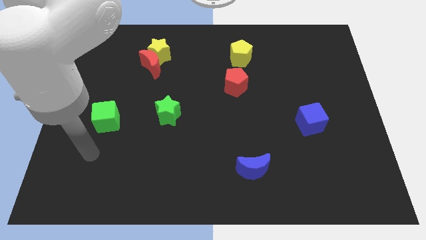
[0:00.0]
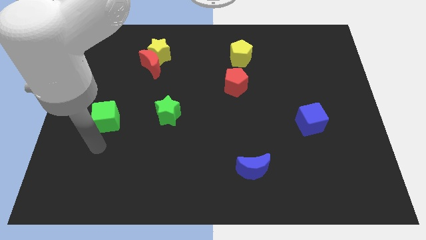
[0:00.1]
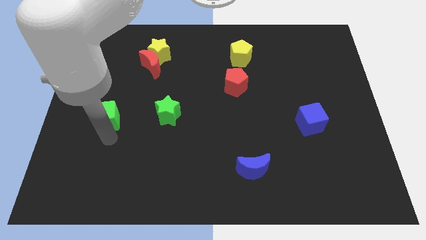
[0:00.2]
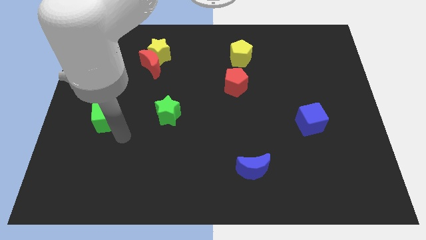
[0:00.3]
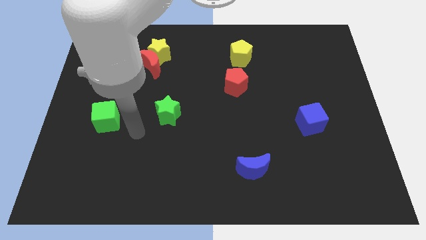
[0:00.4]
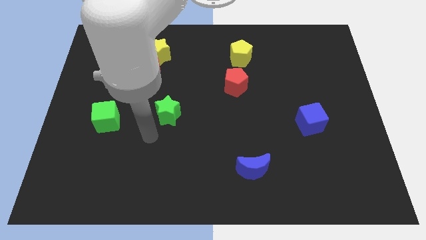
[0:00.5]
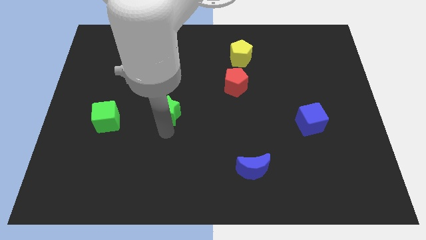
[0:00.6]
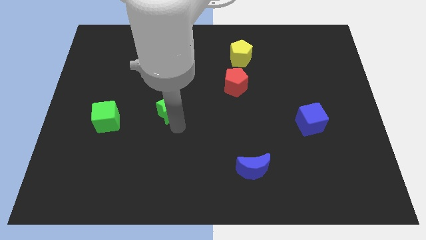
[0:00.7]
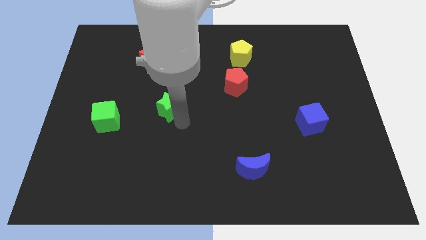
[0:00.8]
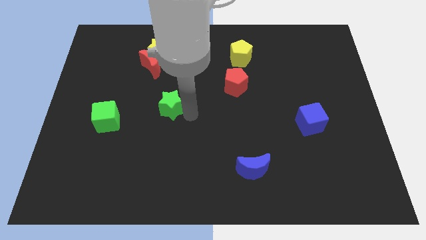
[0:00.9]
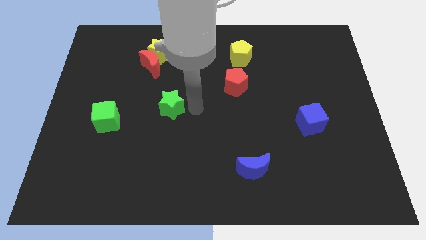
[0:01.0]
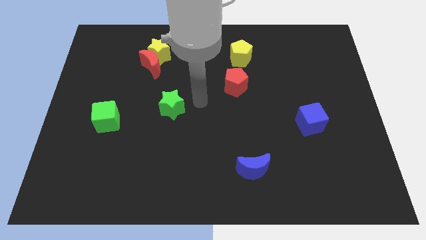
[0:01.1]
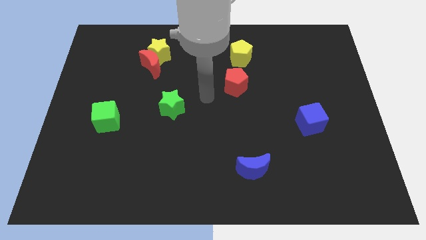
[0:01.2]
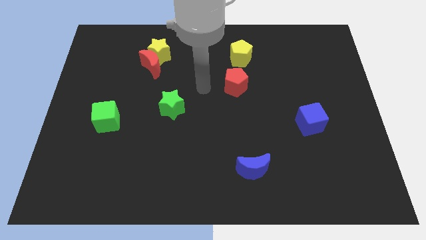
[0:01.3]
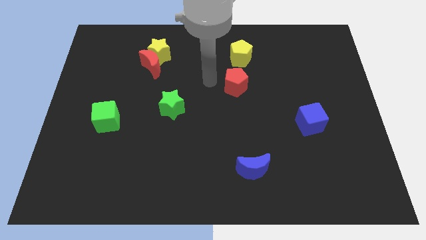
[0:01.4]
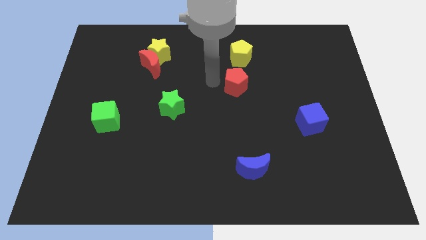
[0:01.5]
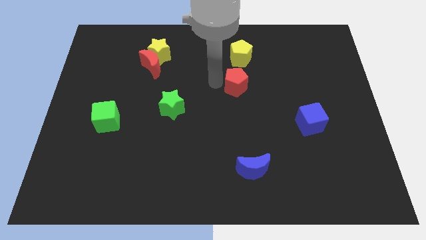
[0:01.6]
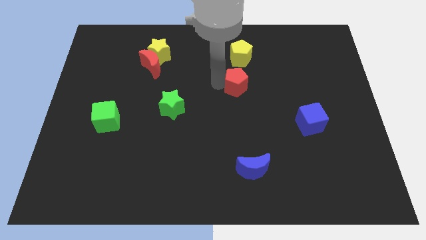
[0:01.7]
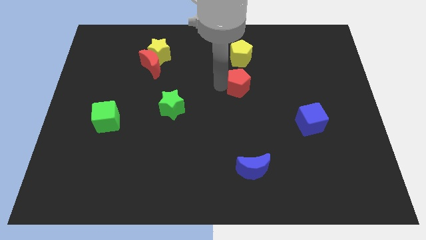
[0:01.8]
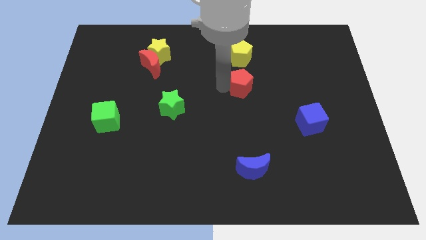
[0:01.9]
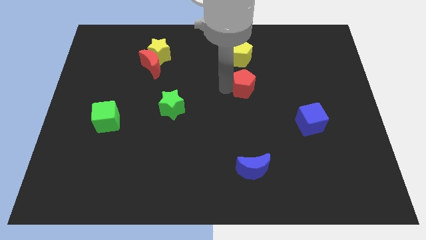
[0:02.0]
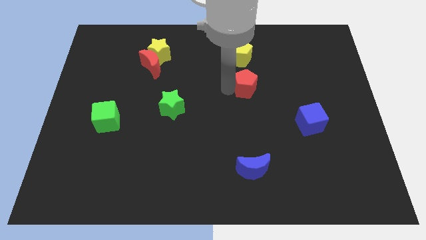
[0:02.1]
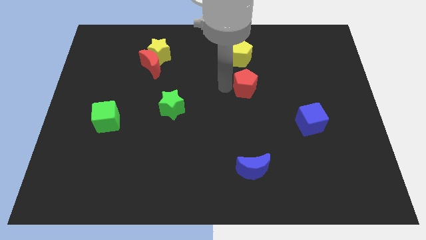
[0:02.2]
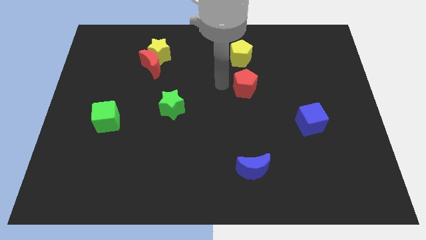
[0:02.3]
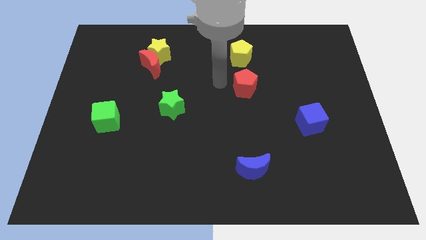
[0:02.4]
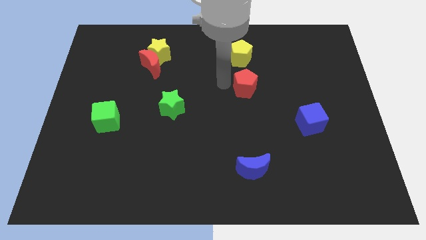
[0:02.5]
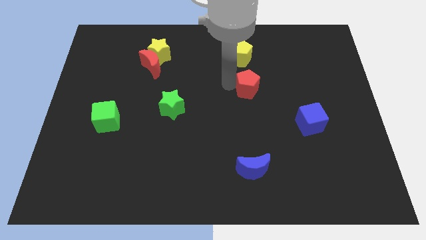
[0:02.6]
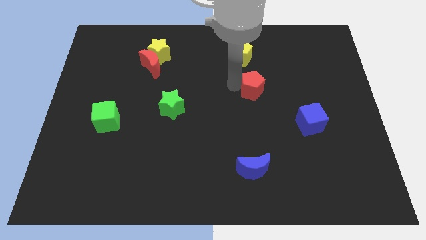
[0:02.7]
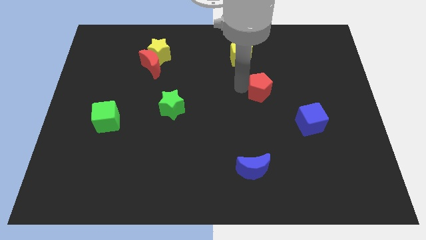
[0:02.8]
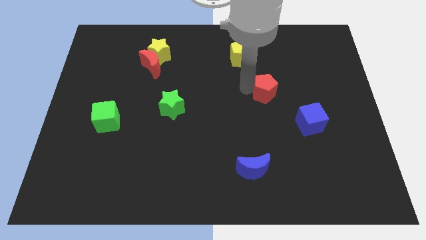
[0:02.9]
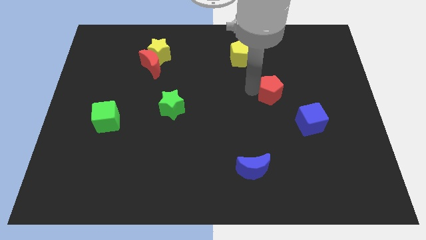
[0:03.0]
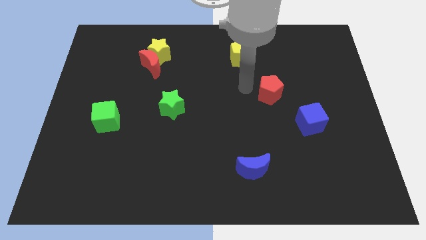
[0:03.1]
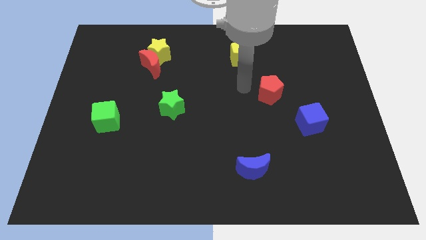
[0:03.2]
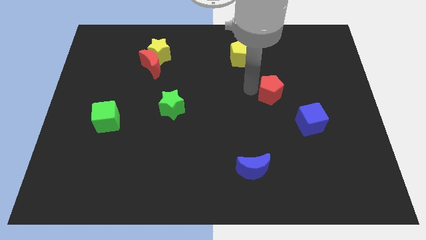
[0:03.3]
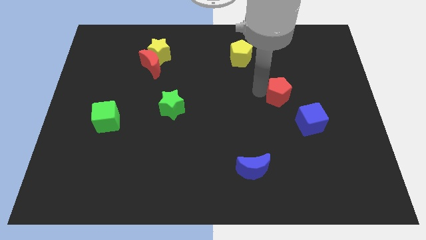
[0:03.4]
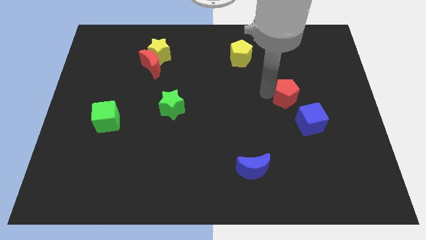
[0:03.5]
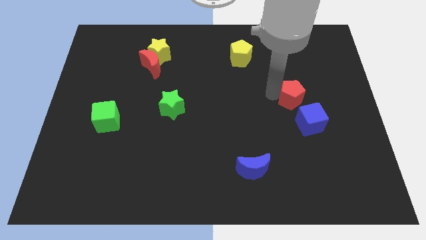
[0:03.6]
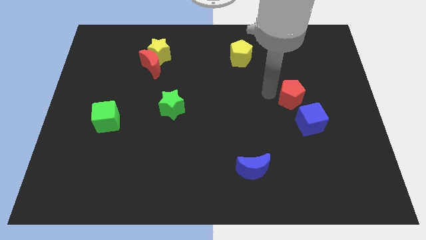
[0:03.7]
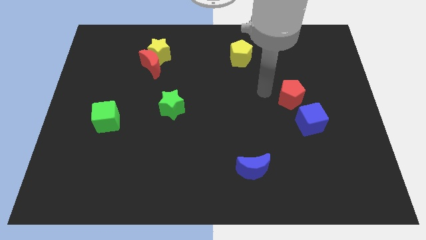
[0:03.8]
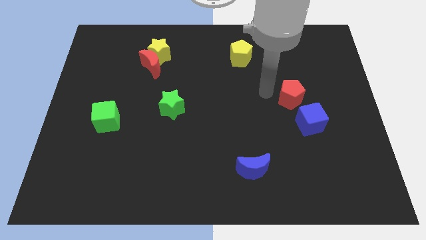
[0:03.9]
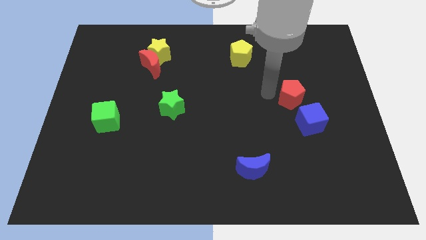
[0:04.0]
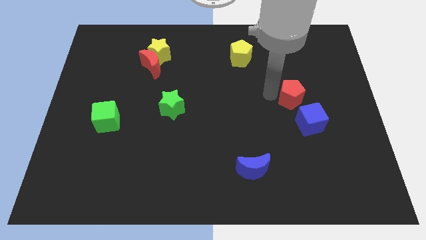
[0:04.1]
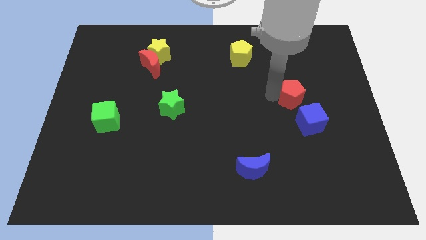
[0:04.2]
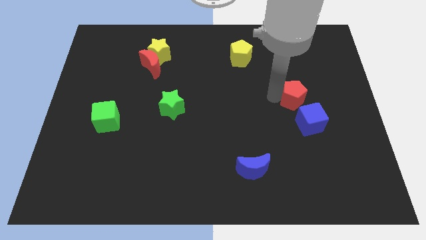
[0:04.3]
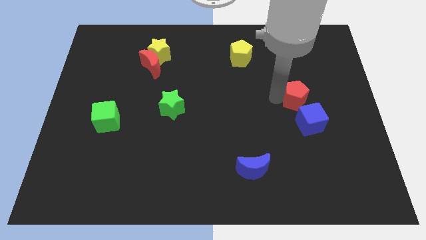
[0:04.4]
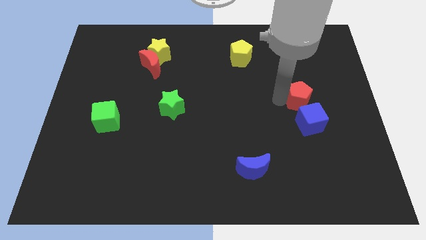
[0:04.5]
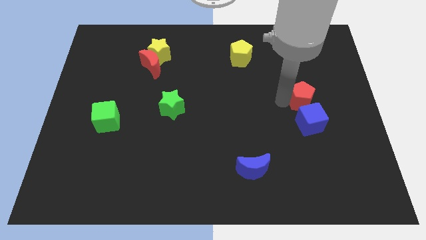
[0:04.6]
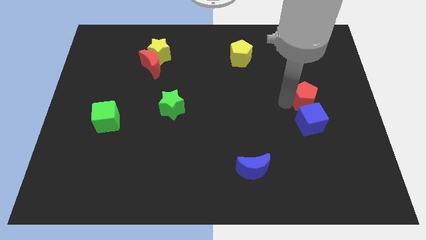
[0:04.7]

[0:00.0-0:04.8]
put the red pentagon diagonally up and to the right of the blue cube

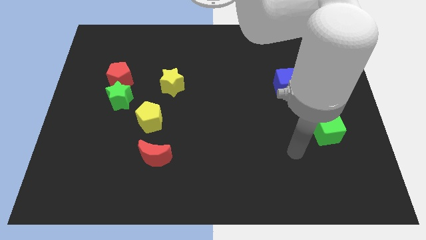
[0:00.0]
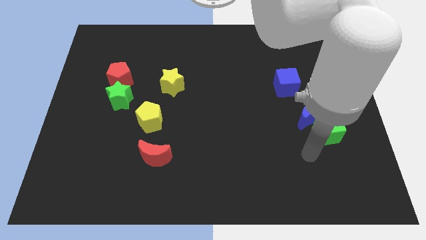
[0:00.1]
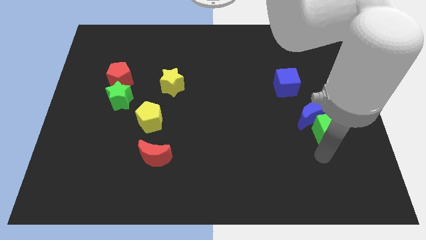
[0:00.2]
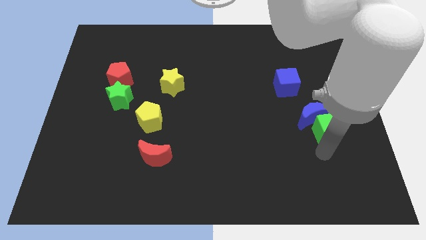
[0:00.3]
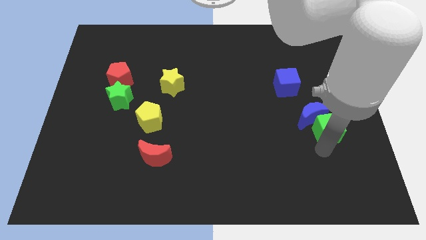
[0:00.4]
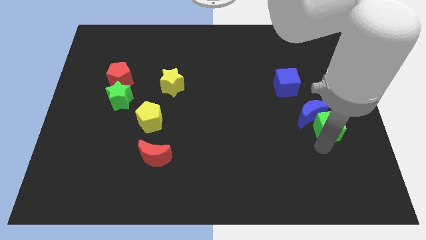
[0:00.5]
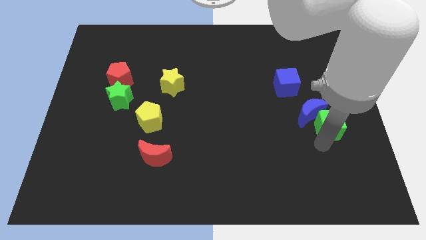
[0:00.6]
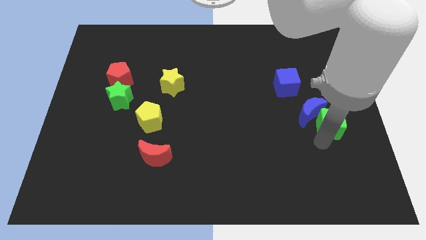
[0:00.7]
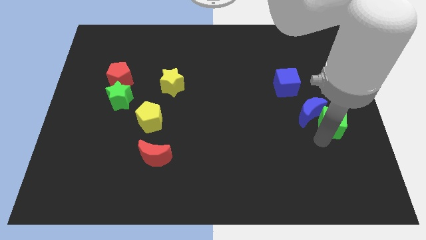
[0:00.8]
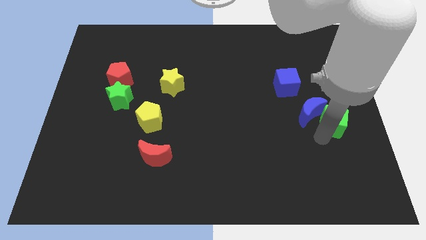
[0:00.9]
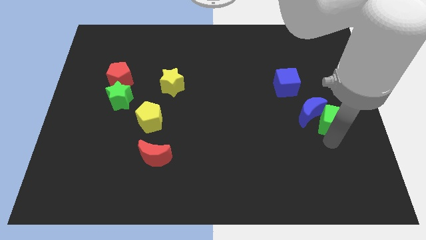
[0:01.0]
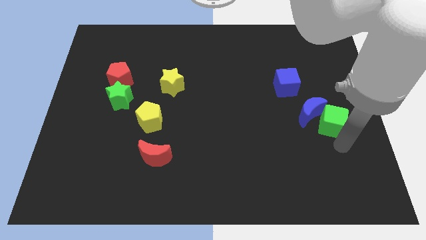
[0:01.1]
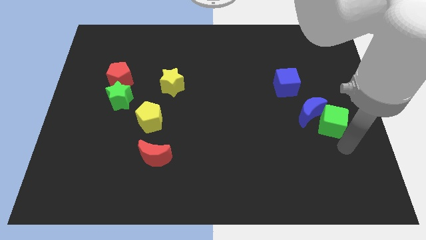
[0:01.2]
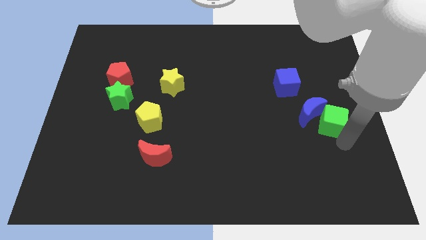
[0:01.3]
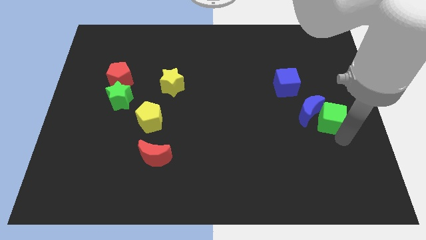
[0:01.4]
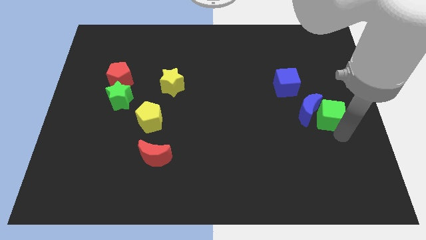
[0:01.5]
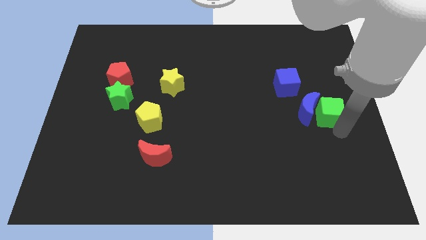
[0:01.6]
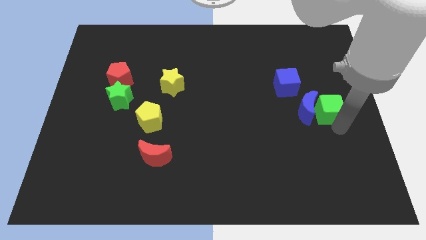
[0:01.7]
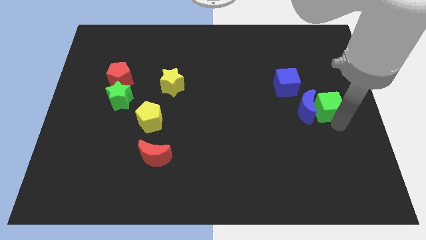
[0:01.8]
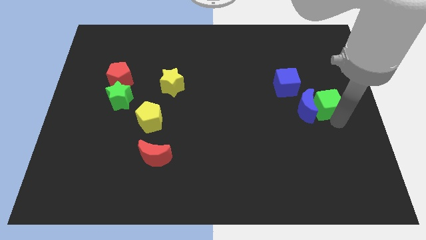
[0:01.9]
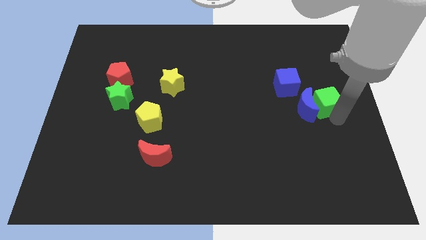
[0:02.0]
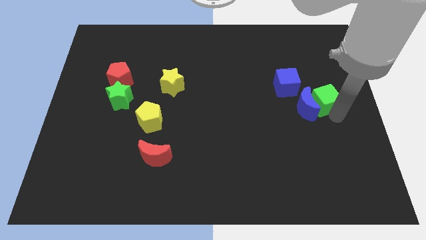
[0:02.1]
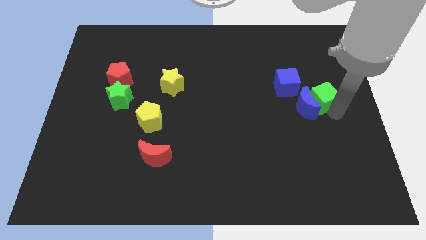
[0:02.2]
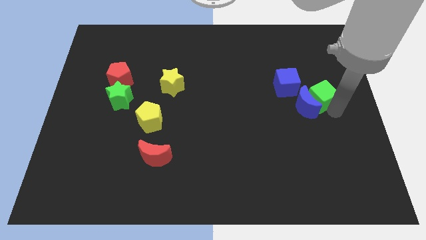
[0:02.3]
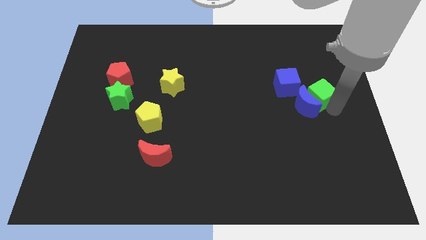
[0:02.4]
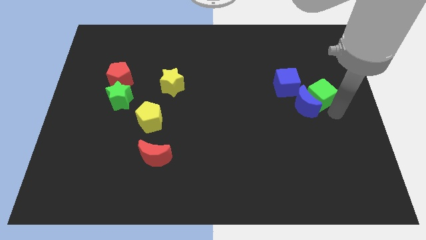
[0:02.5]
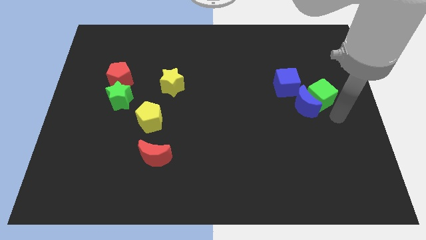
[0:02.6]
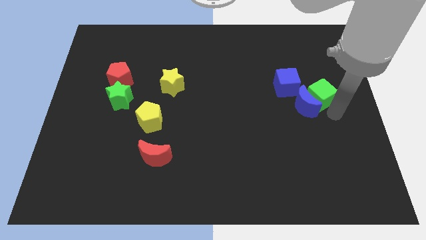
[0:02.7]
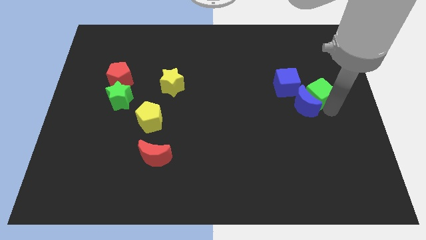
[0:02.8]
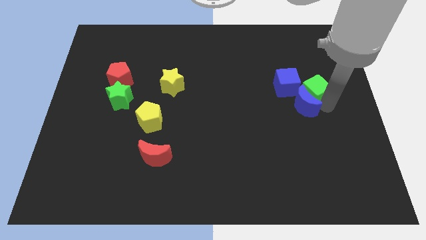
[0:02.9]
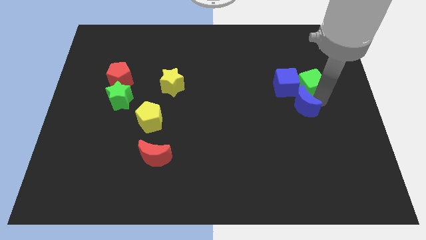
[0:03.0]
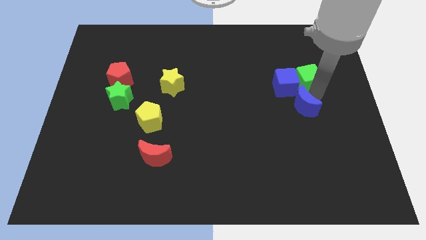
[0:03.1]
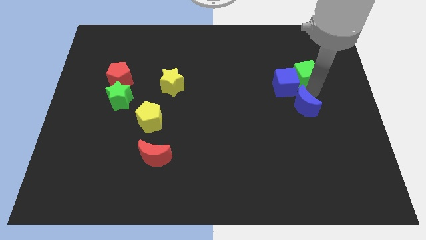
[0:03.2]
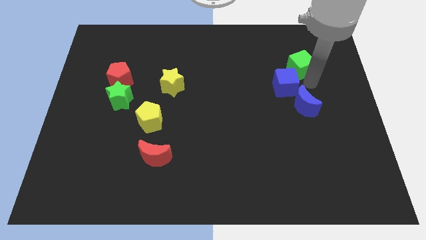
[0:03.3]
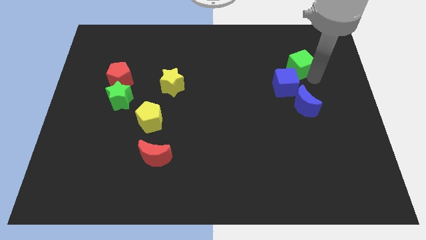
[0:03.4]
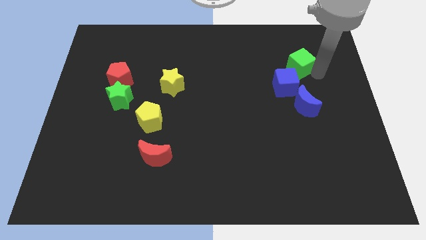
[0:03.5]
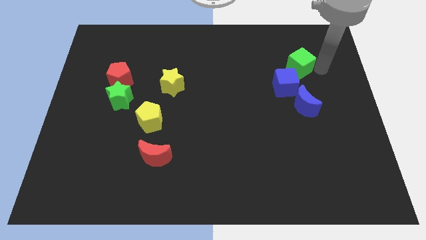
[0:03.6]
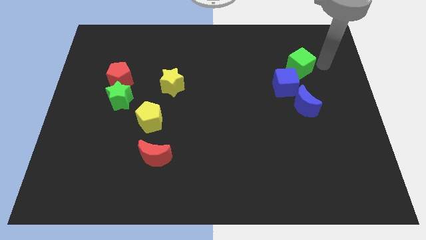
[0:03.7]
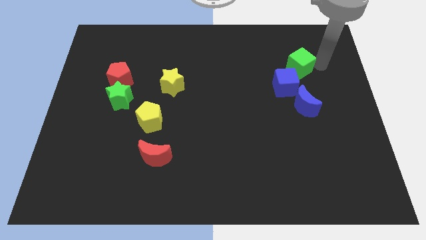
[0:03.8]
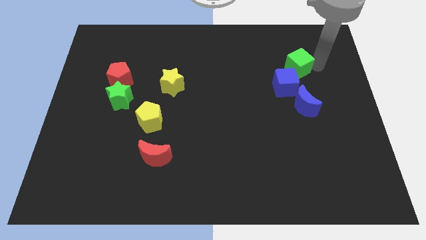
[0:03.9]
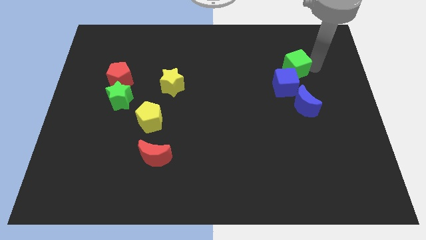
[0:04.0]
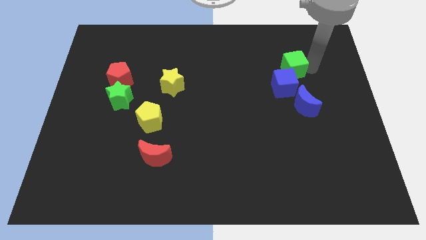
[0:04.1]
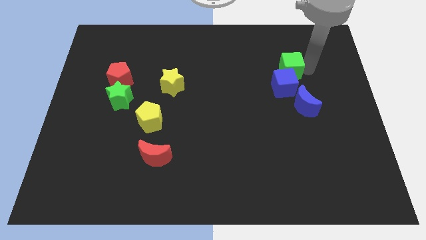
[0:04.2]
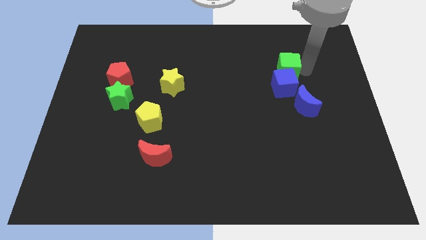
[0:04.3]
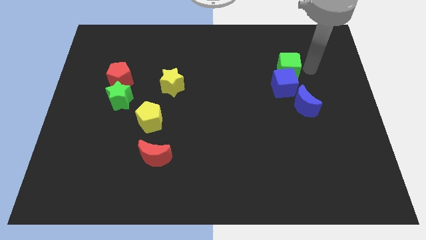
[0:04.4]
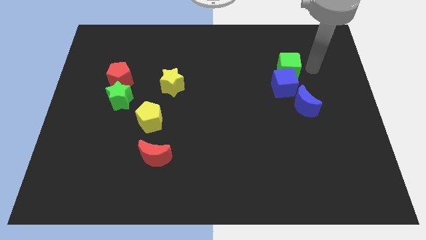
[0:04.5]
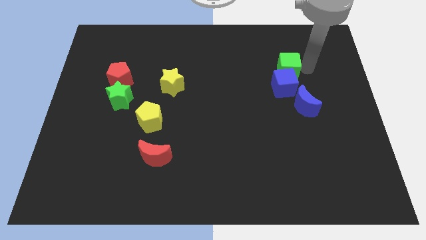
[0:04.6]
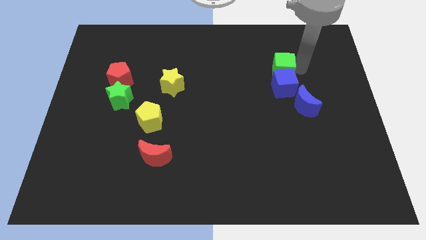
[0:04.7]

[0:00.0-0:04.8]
slide the green cube to the top left of the blue cube
